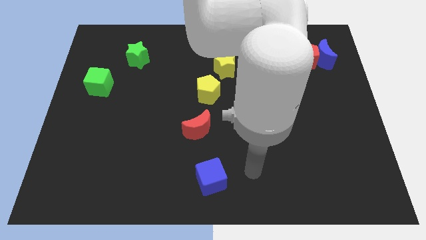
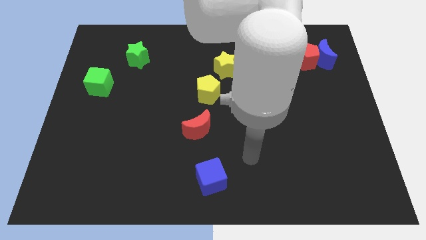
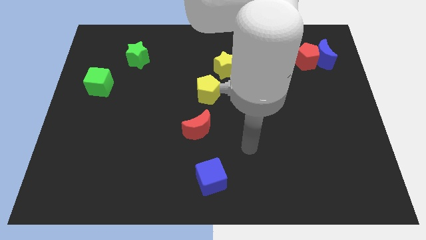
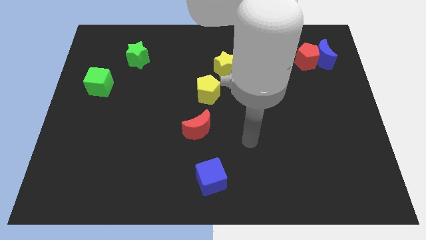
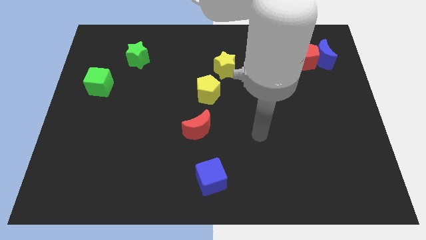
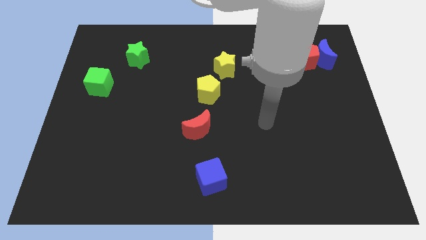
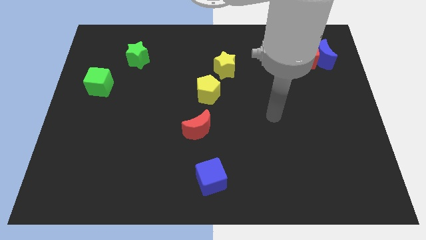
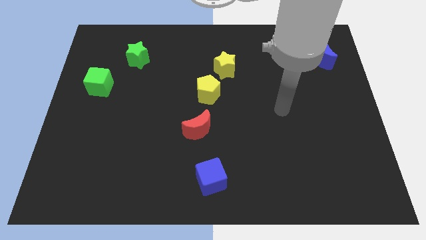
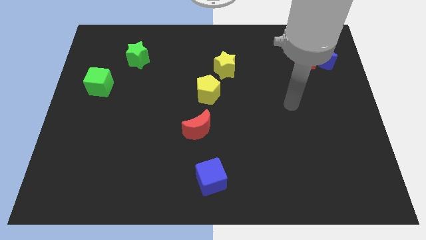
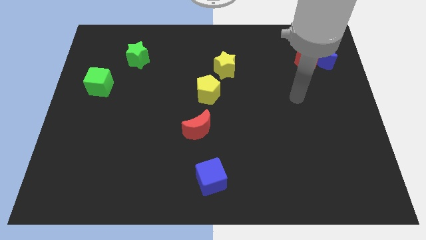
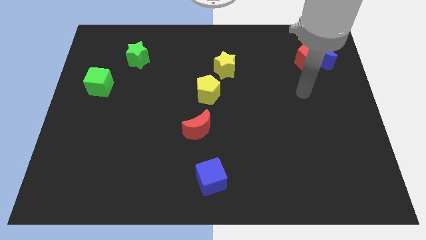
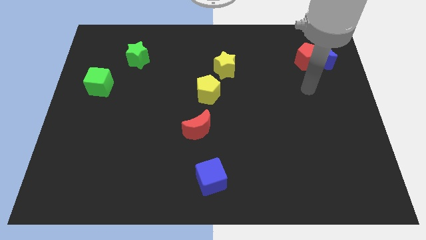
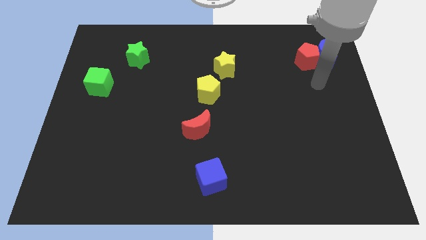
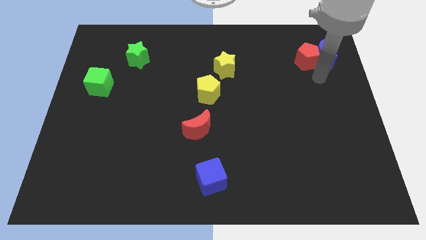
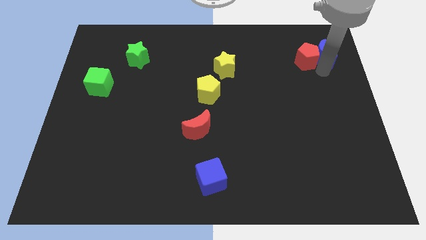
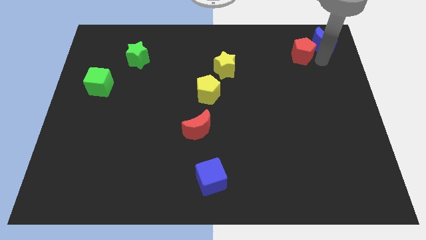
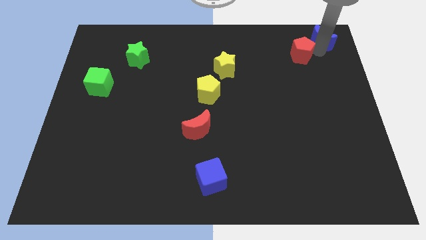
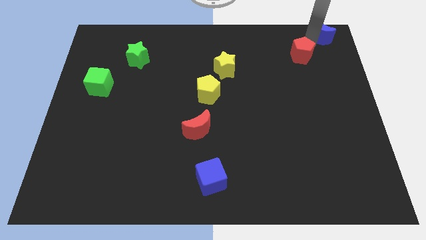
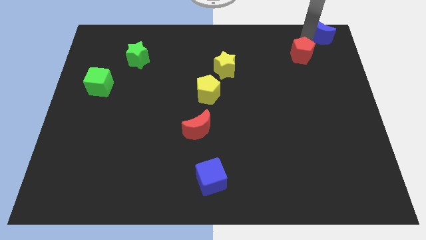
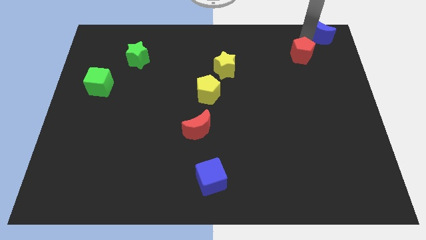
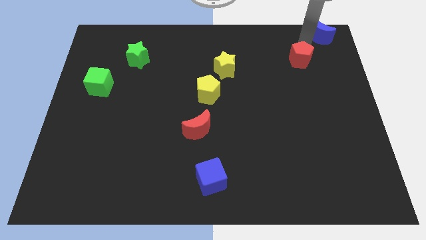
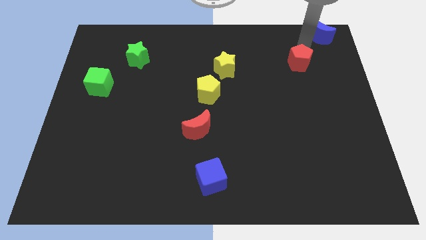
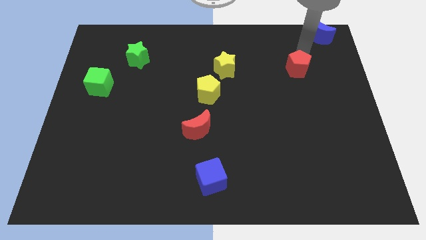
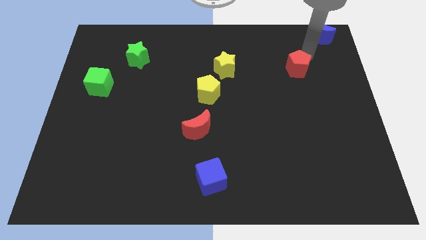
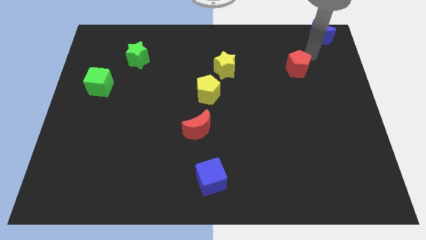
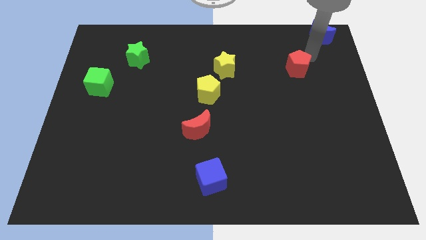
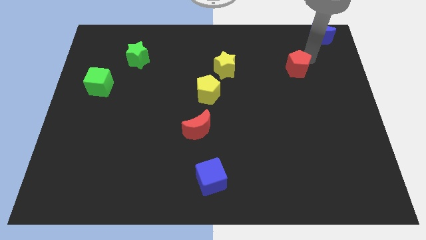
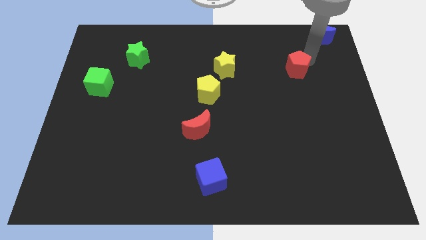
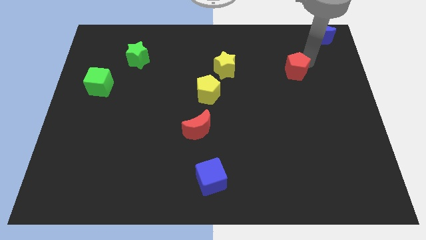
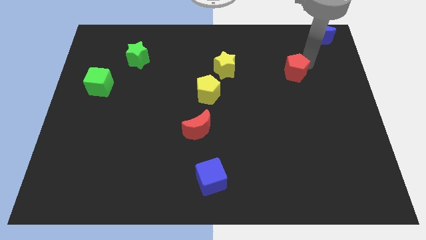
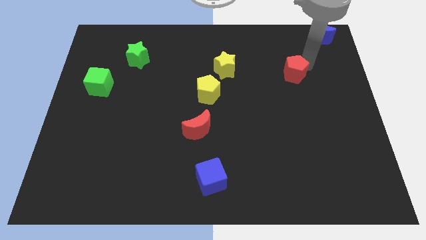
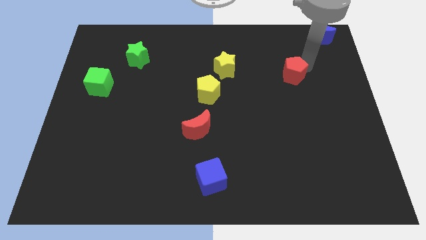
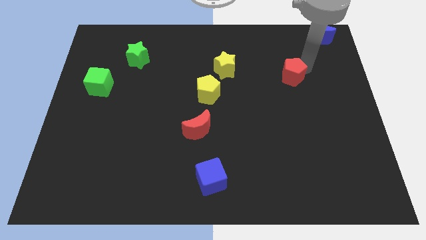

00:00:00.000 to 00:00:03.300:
slightly push the red pentagon downwards and left diagonally

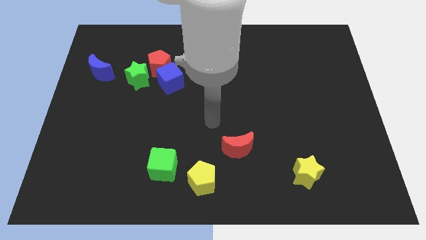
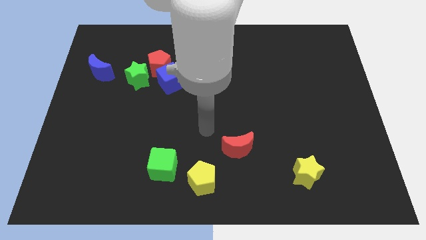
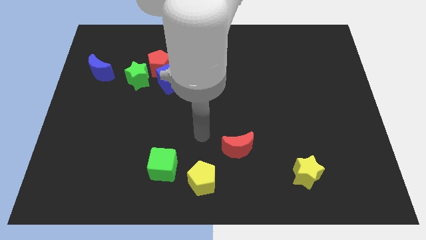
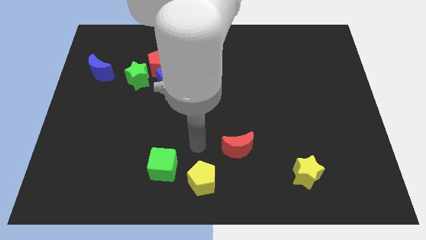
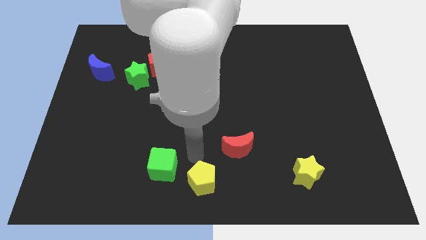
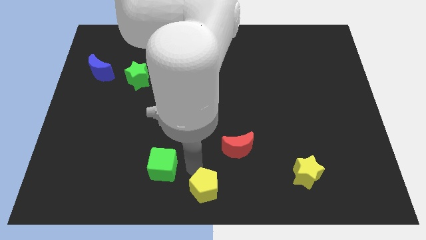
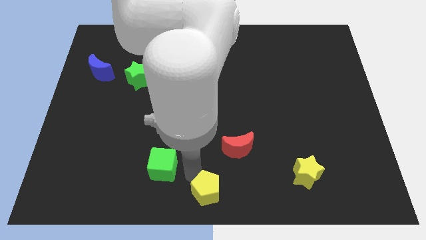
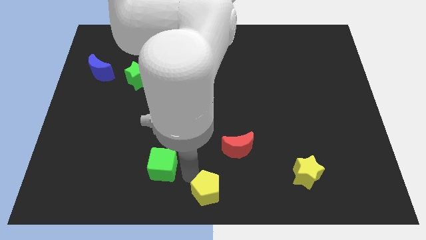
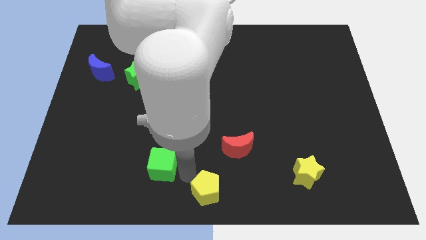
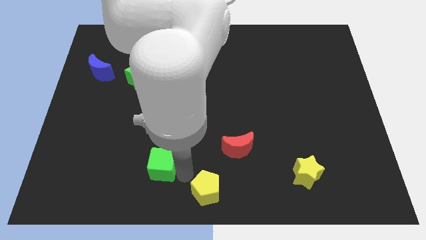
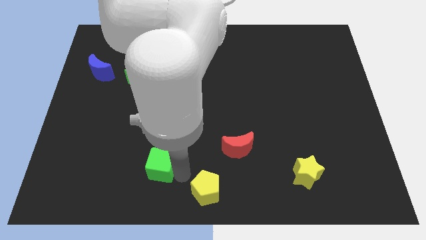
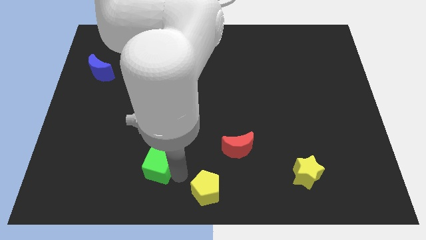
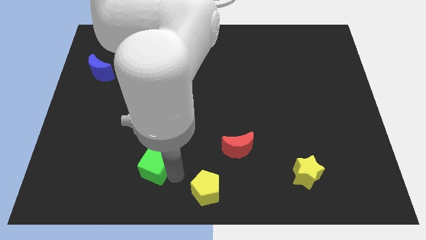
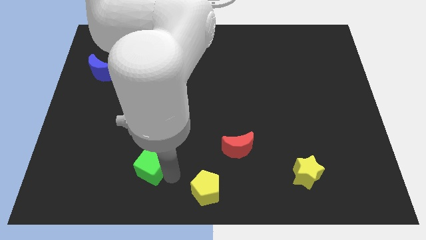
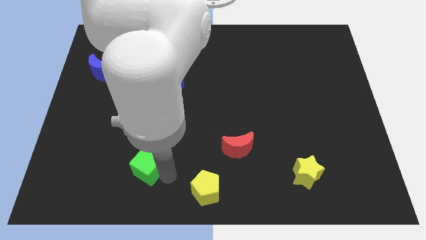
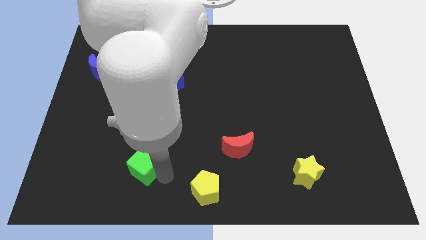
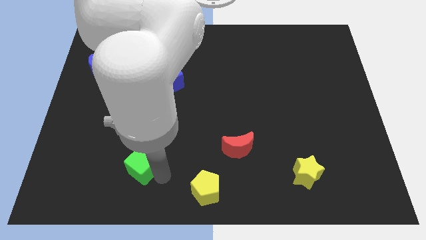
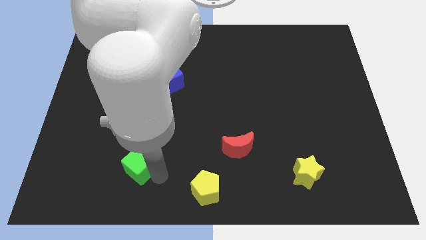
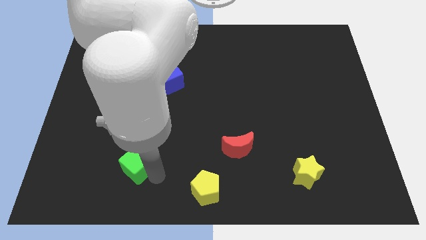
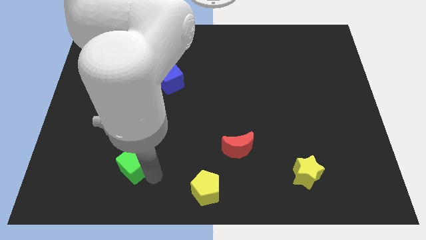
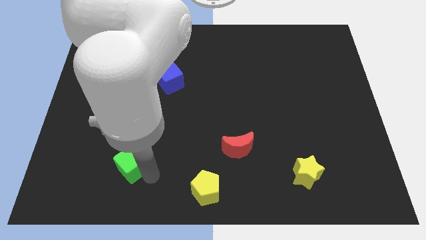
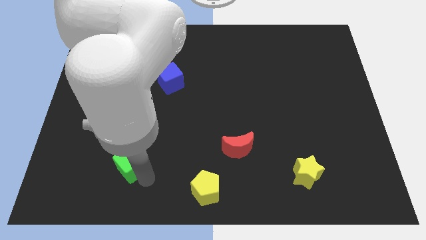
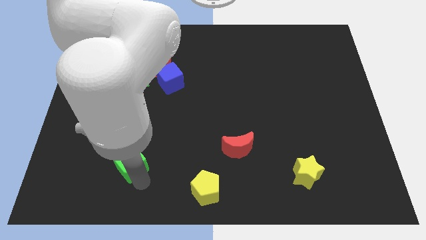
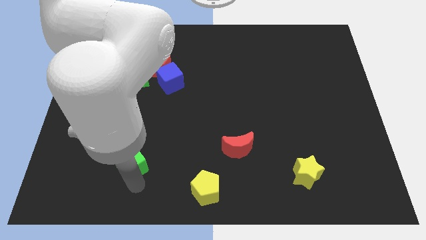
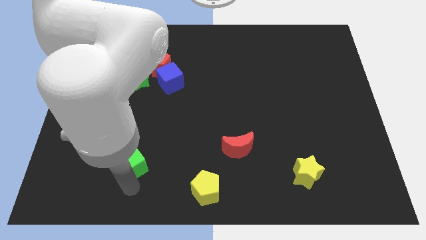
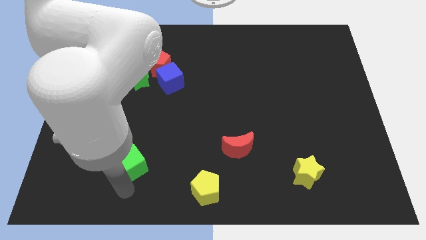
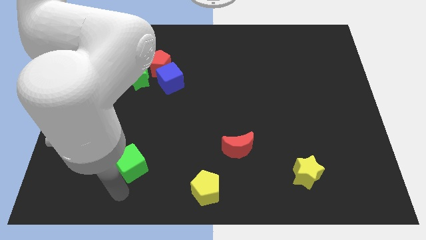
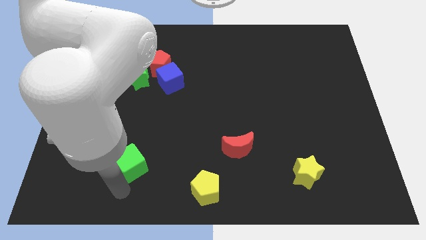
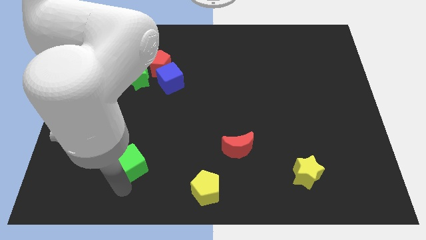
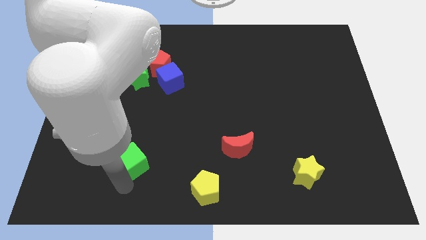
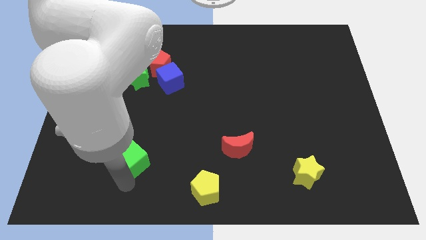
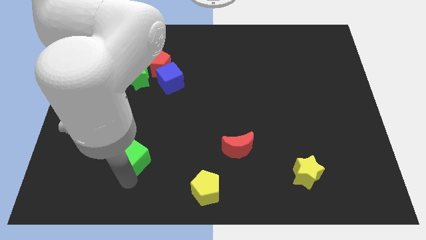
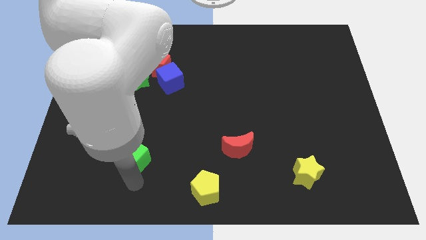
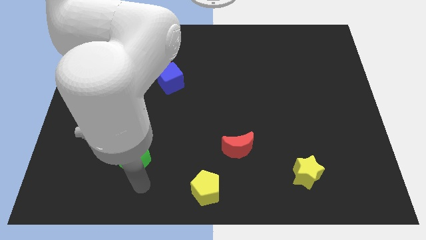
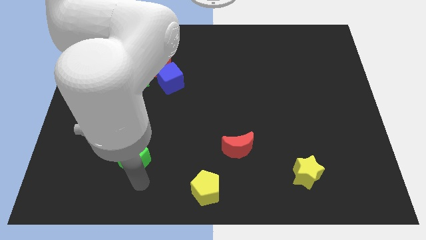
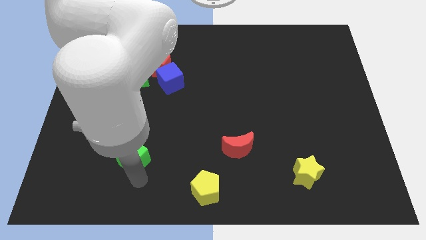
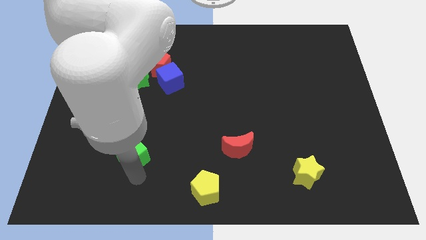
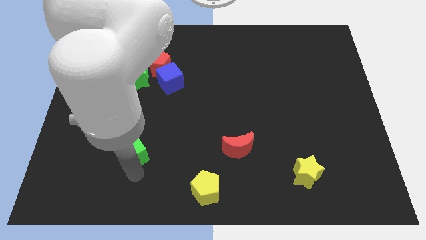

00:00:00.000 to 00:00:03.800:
slightly move the green cube up and left diagonally

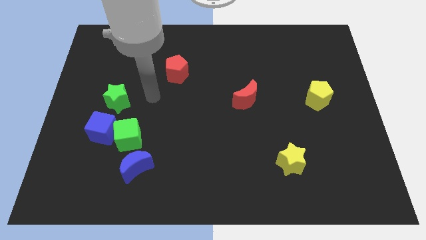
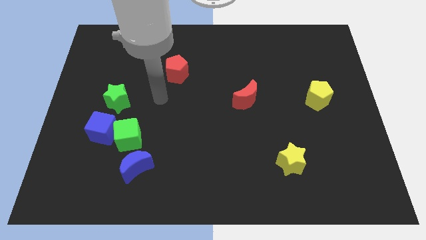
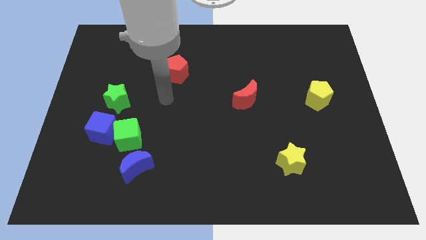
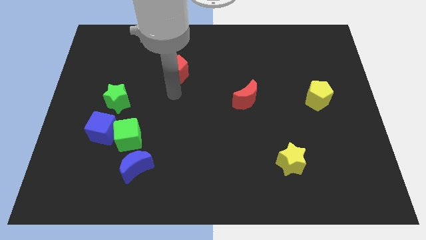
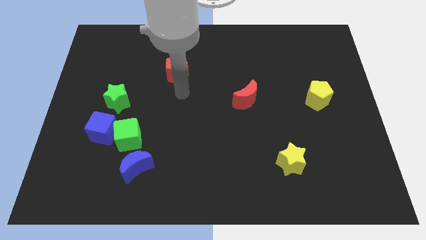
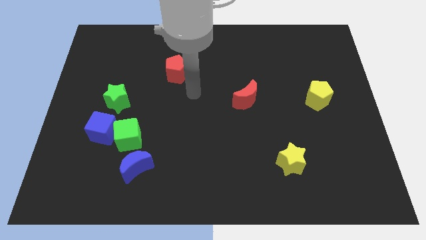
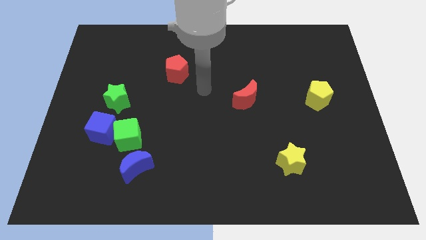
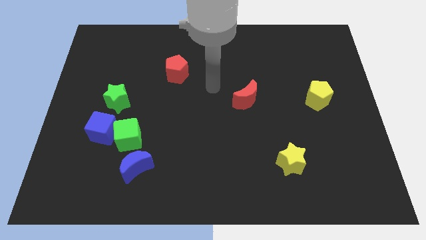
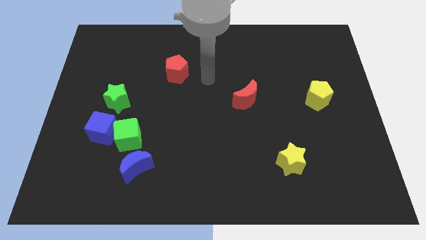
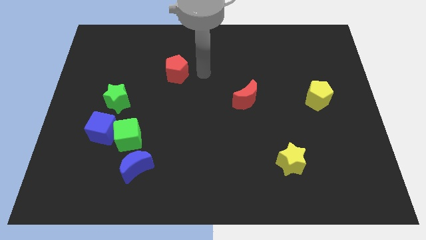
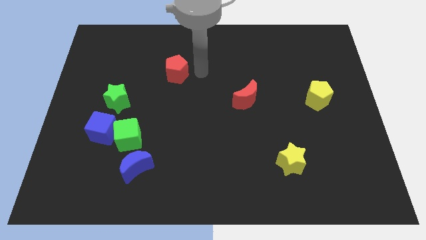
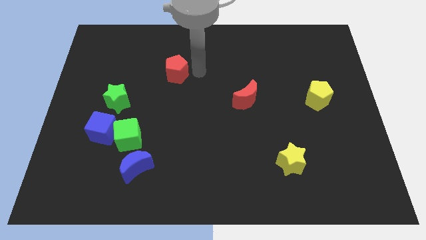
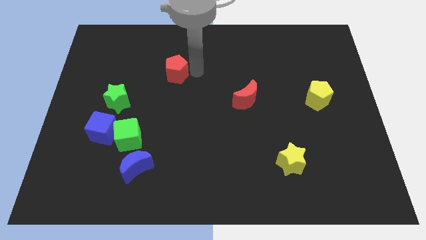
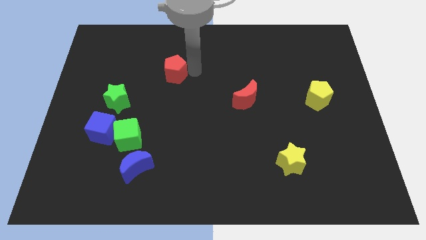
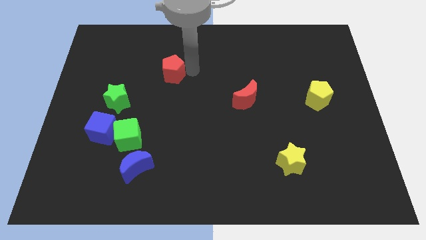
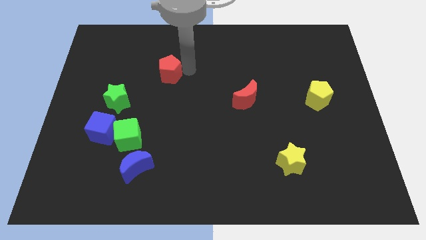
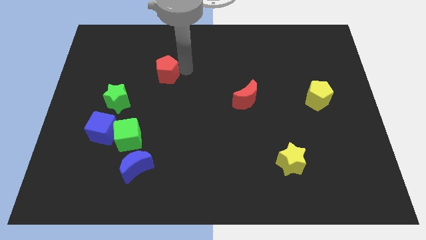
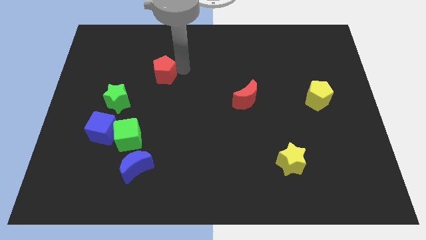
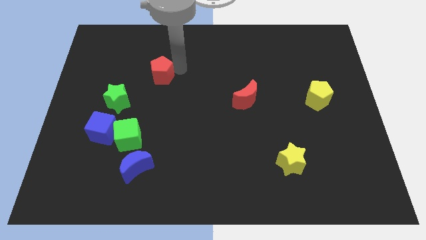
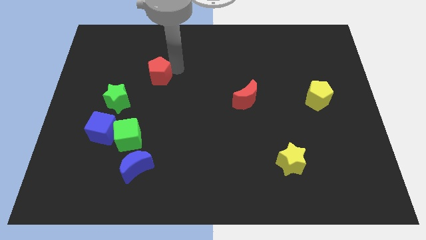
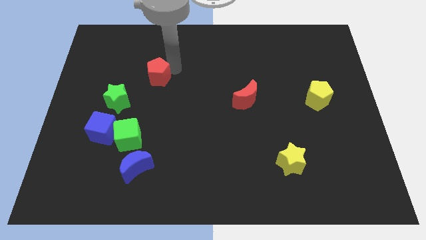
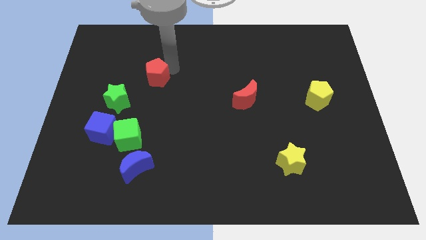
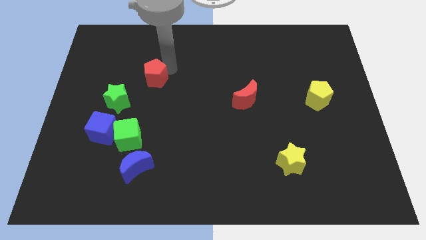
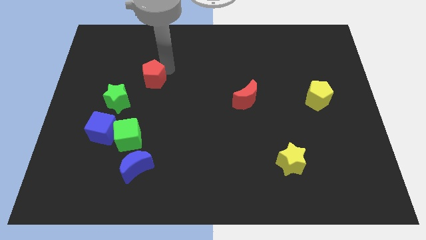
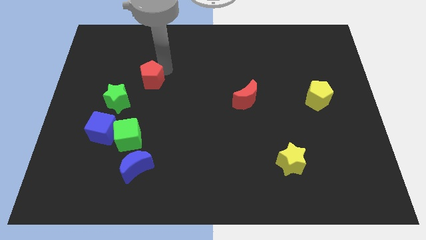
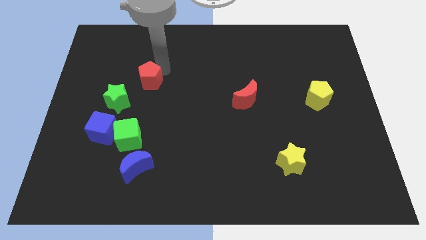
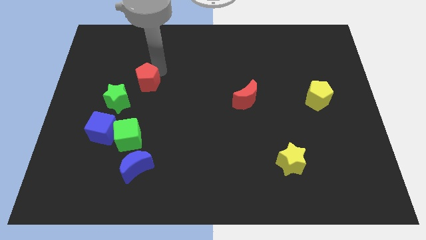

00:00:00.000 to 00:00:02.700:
slightly move the red pentagon left
